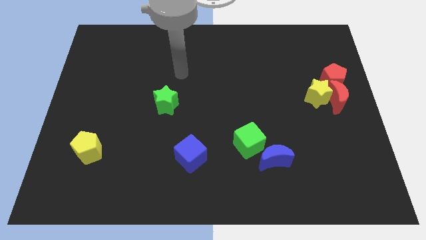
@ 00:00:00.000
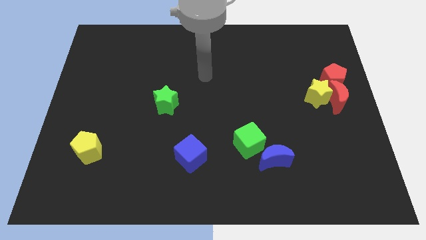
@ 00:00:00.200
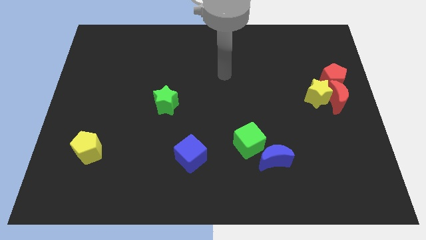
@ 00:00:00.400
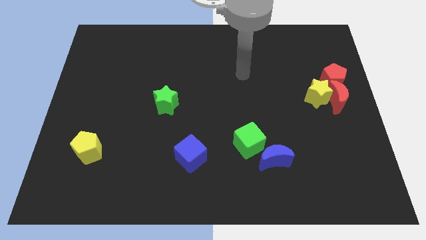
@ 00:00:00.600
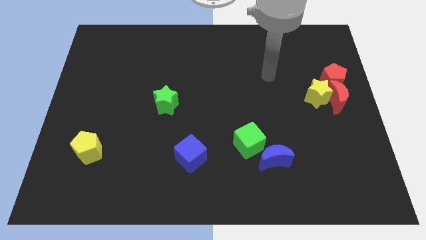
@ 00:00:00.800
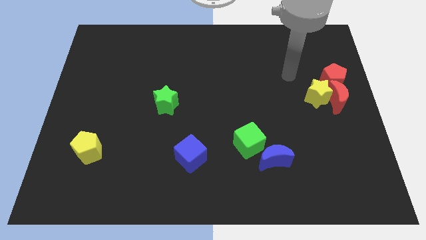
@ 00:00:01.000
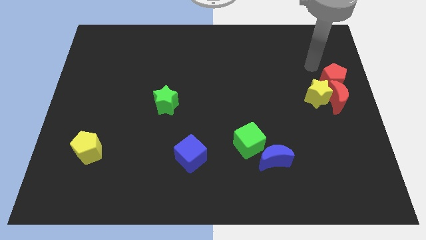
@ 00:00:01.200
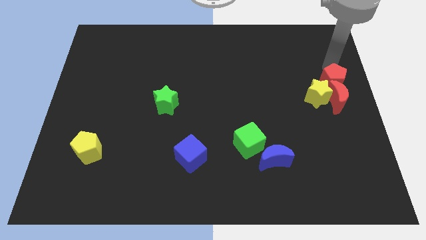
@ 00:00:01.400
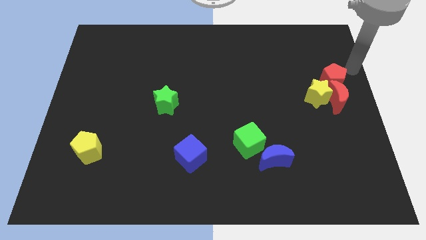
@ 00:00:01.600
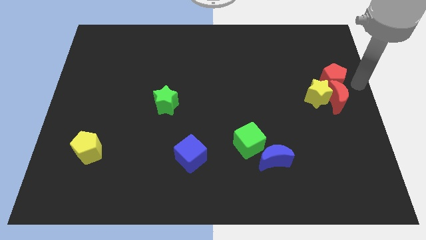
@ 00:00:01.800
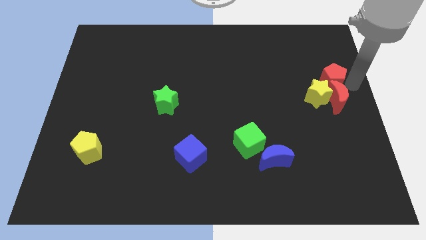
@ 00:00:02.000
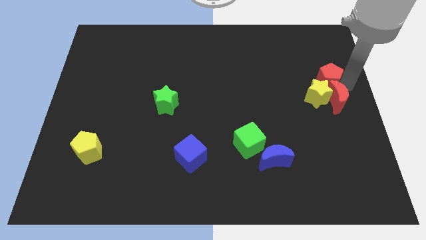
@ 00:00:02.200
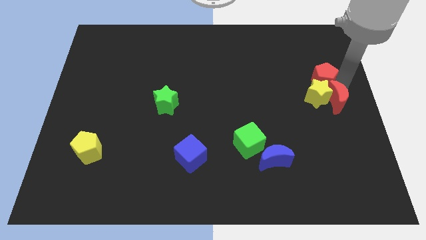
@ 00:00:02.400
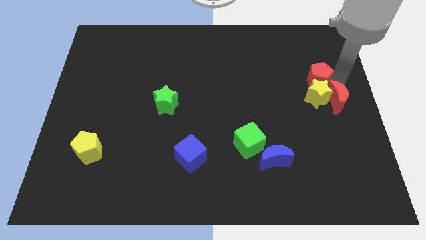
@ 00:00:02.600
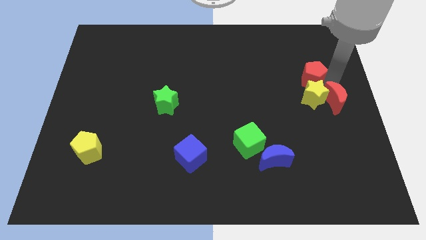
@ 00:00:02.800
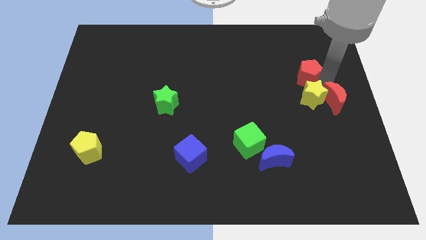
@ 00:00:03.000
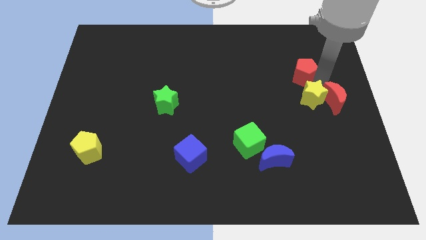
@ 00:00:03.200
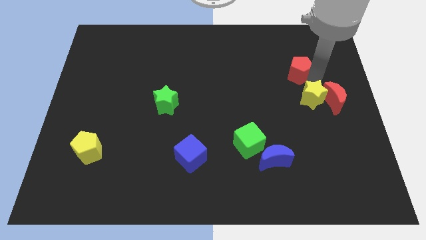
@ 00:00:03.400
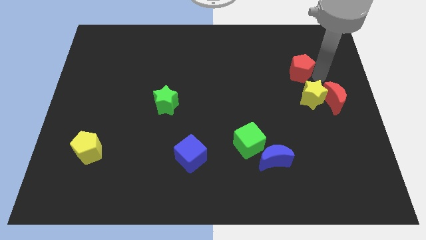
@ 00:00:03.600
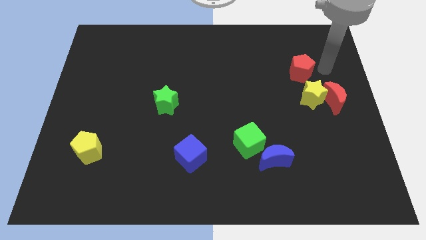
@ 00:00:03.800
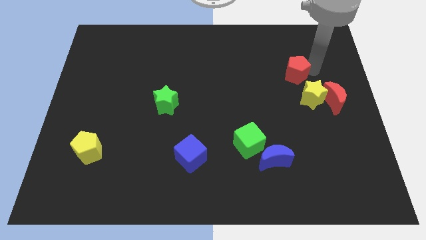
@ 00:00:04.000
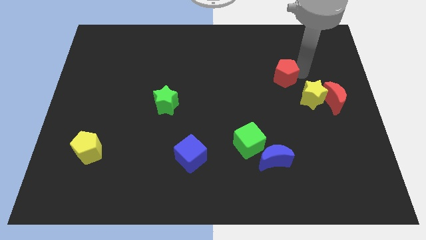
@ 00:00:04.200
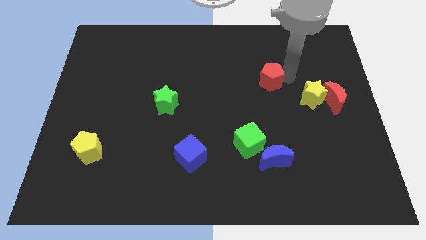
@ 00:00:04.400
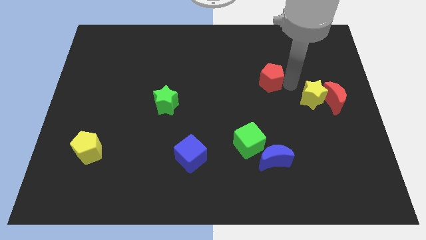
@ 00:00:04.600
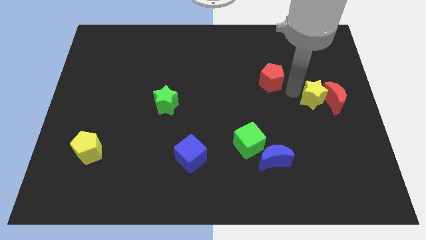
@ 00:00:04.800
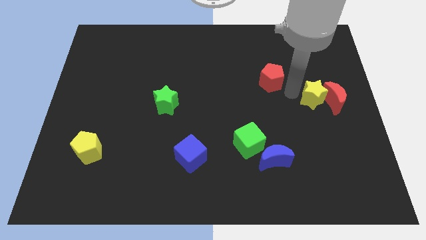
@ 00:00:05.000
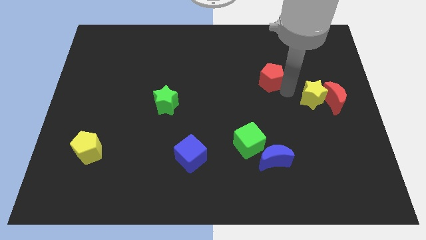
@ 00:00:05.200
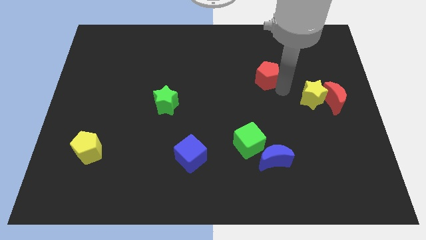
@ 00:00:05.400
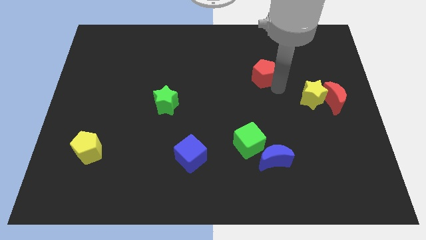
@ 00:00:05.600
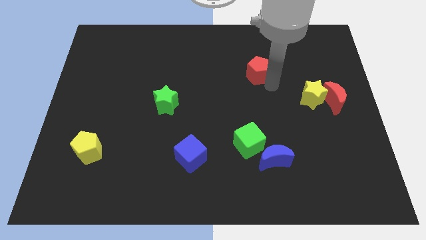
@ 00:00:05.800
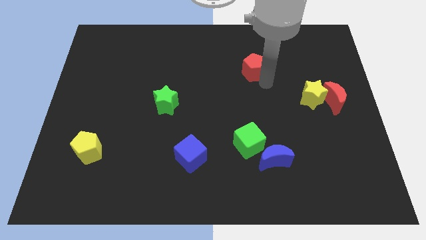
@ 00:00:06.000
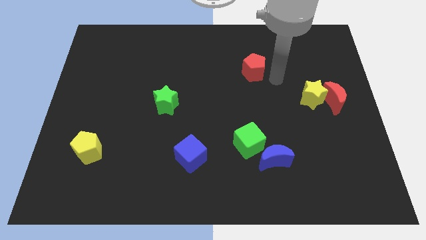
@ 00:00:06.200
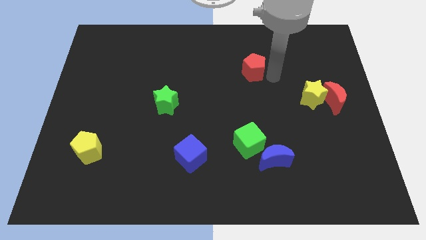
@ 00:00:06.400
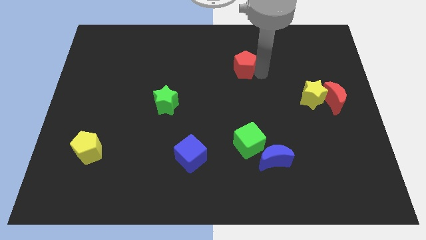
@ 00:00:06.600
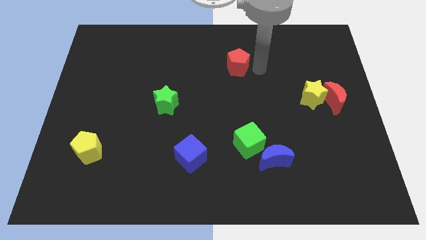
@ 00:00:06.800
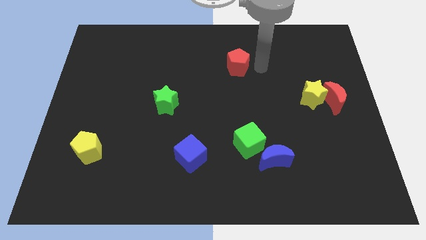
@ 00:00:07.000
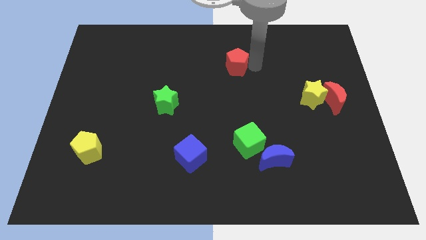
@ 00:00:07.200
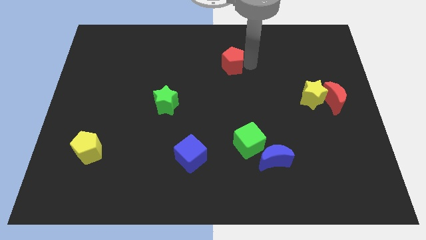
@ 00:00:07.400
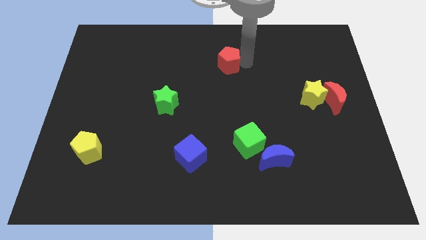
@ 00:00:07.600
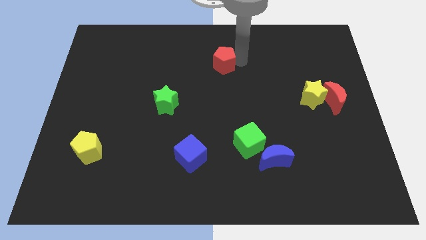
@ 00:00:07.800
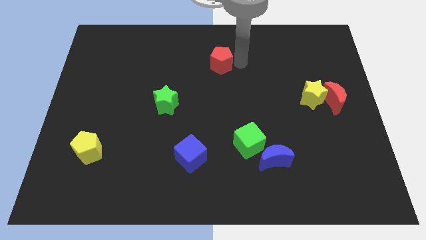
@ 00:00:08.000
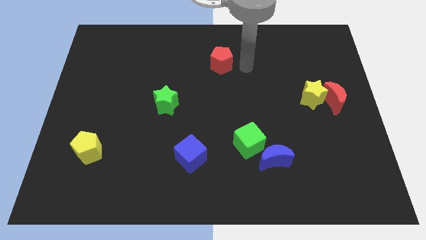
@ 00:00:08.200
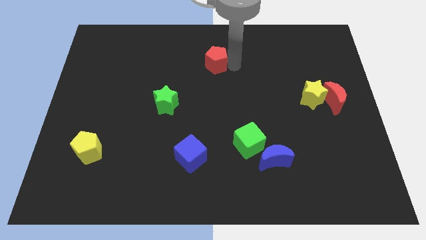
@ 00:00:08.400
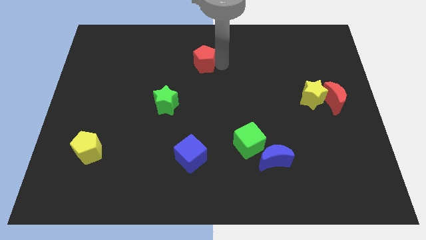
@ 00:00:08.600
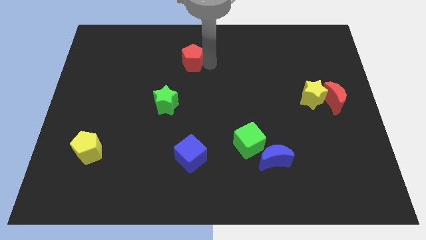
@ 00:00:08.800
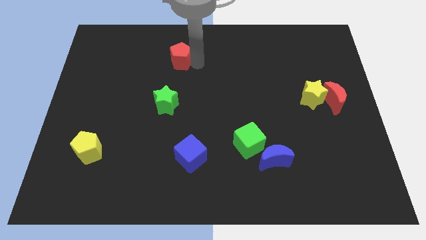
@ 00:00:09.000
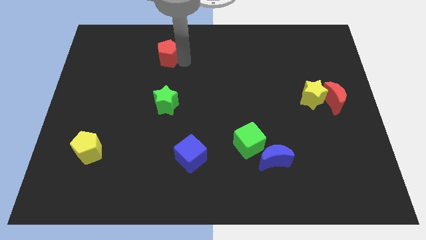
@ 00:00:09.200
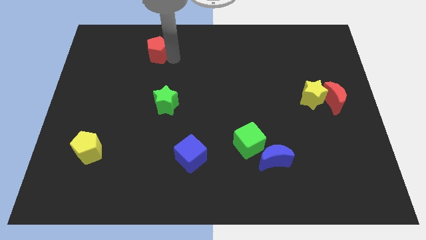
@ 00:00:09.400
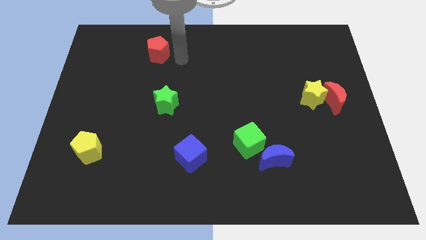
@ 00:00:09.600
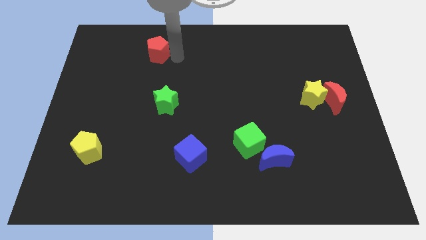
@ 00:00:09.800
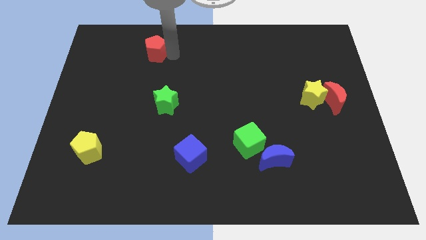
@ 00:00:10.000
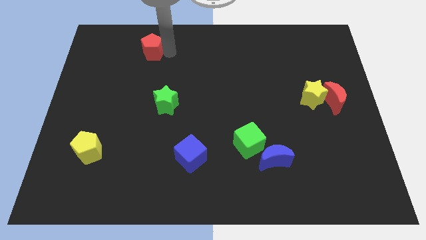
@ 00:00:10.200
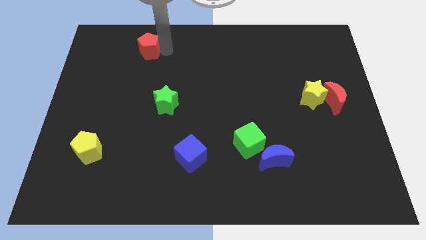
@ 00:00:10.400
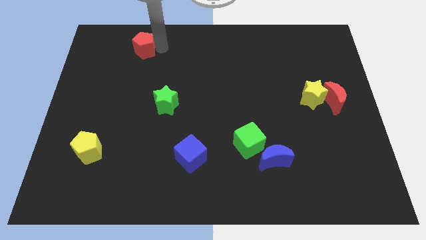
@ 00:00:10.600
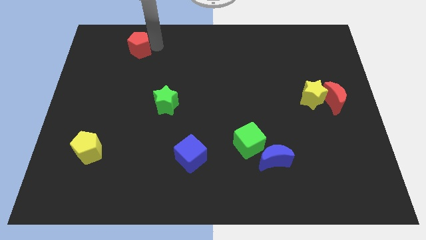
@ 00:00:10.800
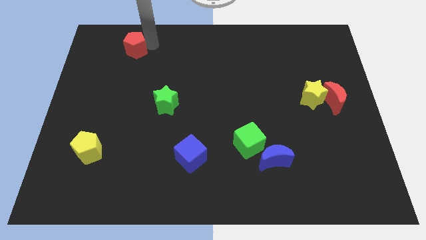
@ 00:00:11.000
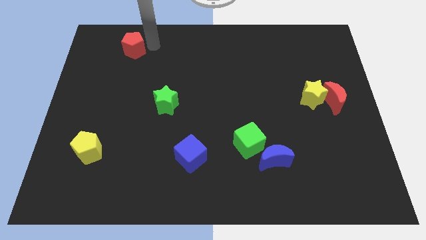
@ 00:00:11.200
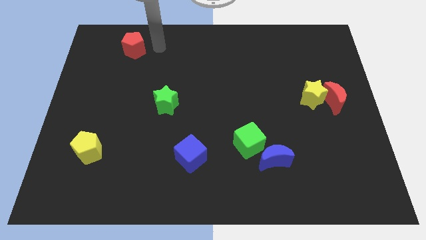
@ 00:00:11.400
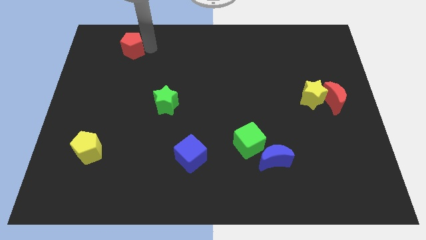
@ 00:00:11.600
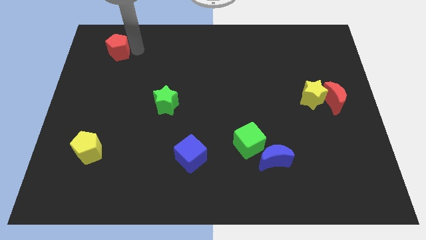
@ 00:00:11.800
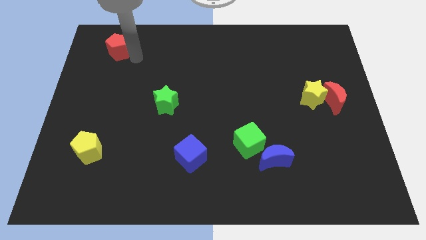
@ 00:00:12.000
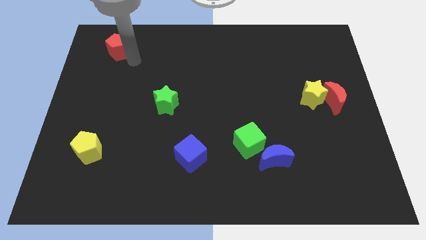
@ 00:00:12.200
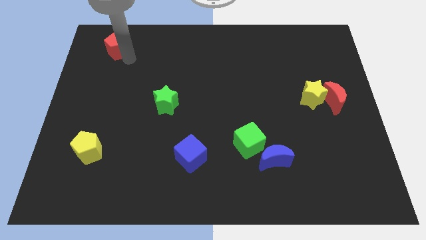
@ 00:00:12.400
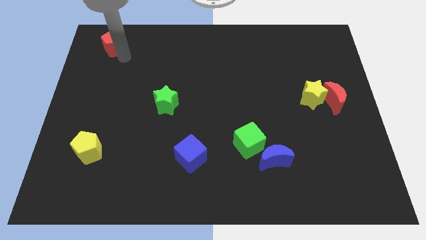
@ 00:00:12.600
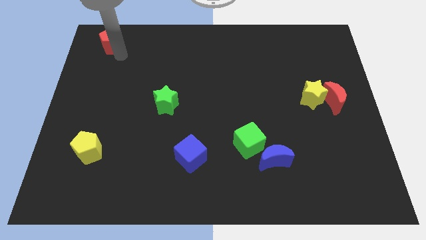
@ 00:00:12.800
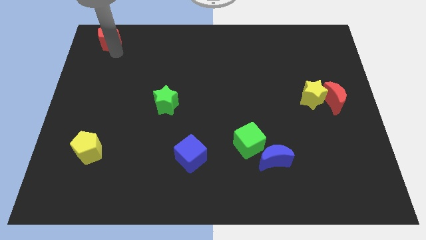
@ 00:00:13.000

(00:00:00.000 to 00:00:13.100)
push the red pentagon to the top left corner
